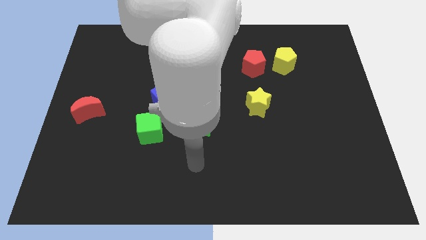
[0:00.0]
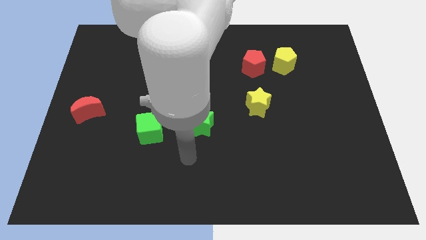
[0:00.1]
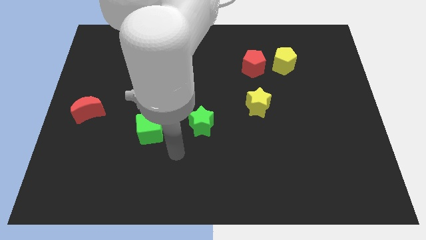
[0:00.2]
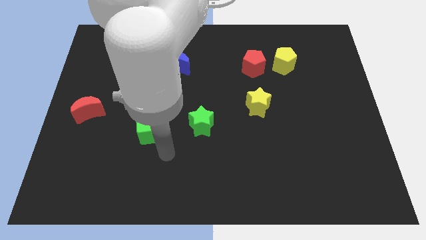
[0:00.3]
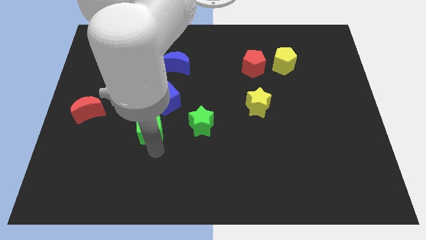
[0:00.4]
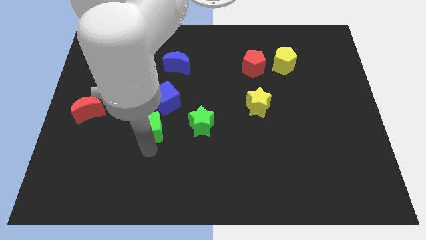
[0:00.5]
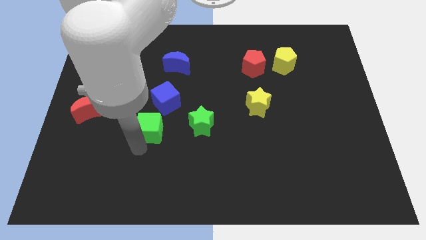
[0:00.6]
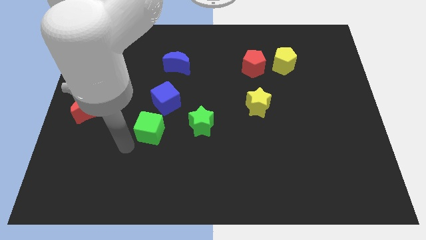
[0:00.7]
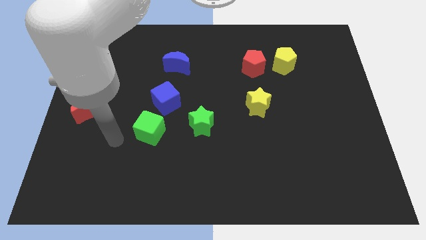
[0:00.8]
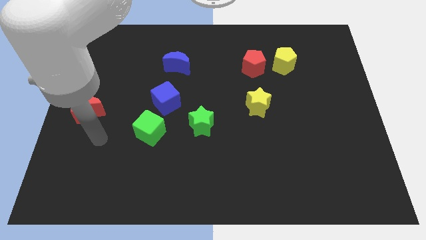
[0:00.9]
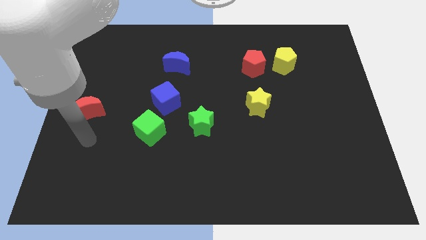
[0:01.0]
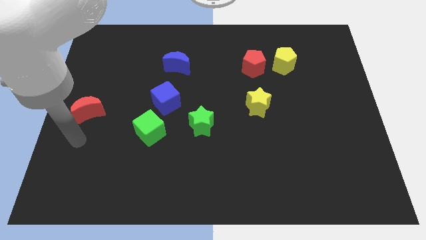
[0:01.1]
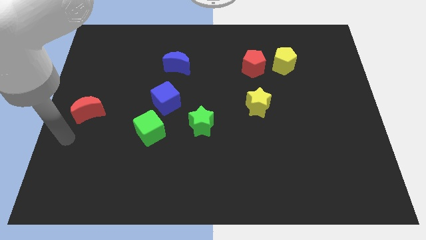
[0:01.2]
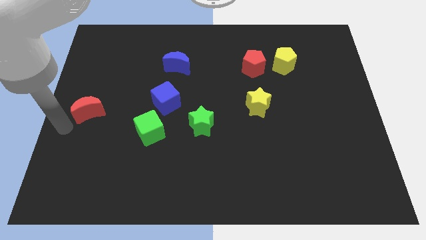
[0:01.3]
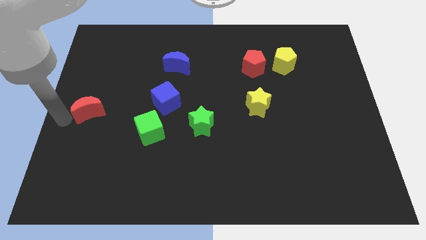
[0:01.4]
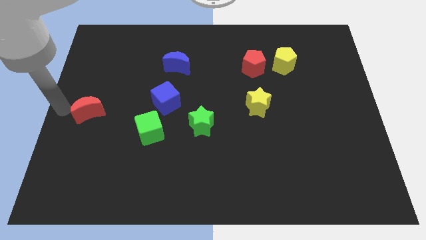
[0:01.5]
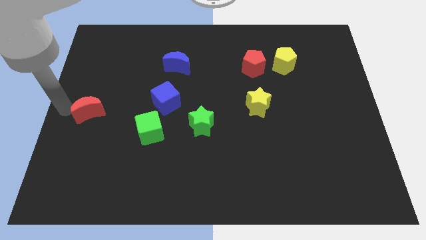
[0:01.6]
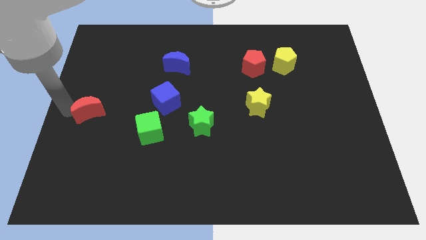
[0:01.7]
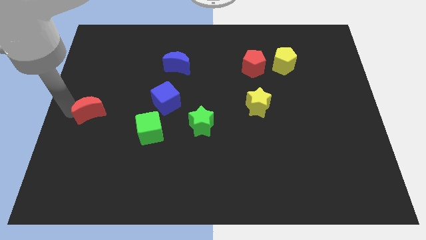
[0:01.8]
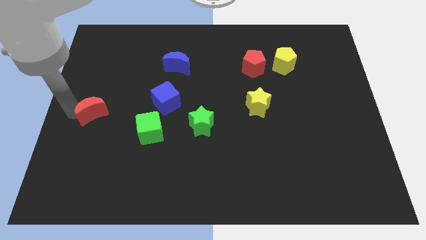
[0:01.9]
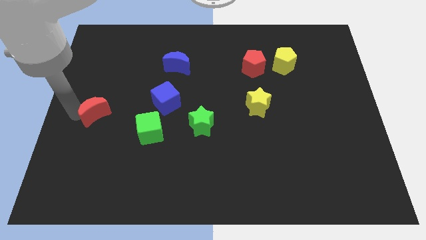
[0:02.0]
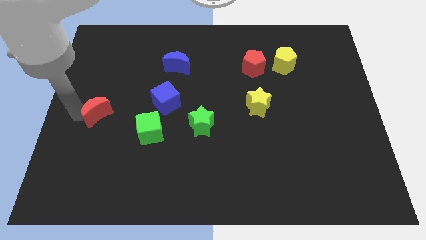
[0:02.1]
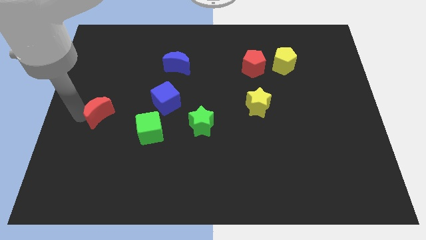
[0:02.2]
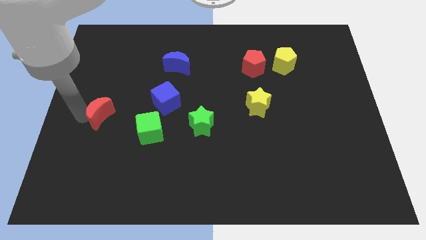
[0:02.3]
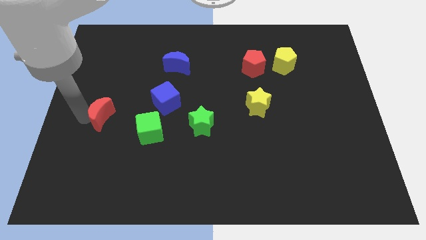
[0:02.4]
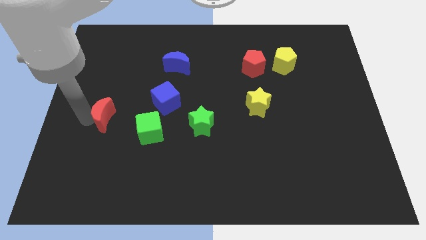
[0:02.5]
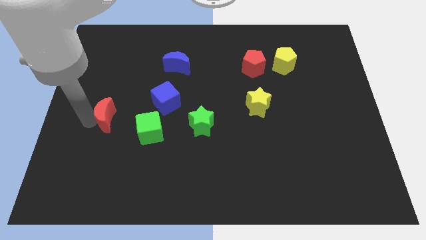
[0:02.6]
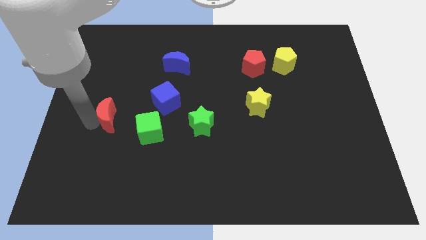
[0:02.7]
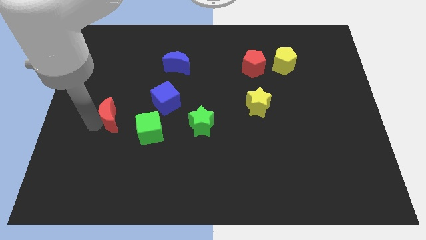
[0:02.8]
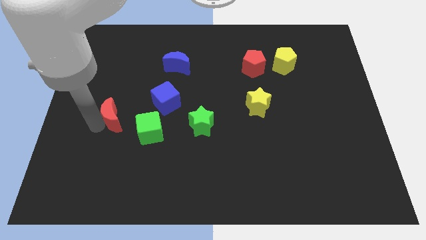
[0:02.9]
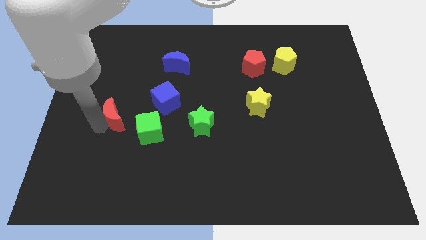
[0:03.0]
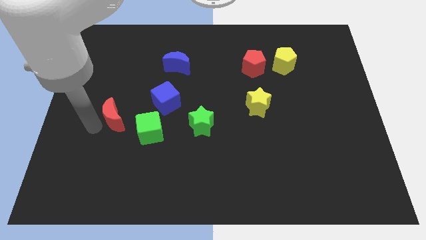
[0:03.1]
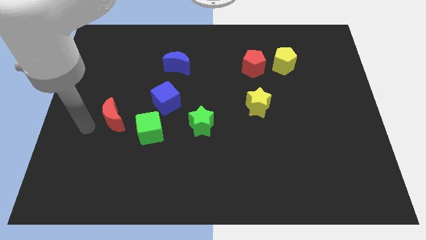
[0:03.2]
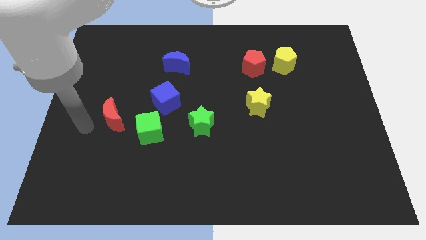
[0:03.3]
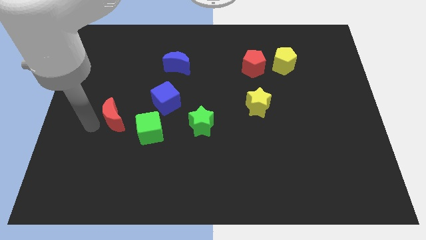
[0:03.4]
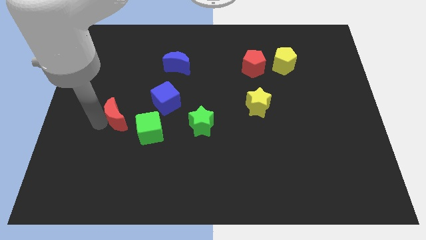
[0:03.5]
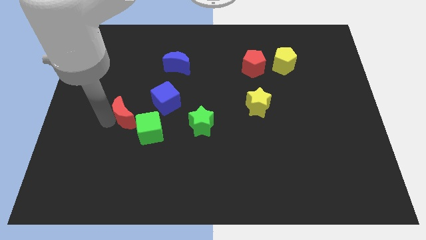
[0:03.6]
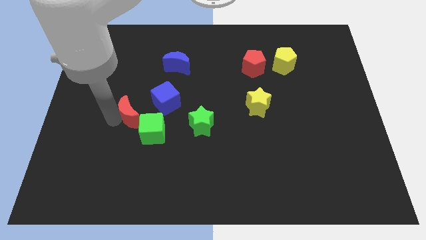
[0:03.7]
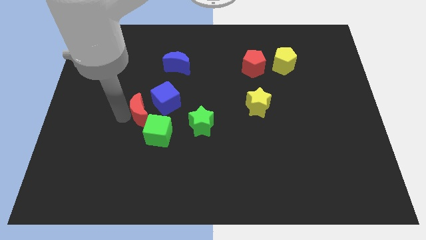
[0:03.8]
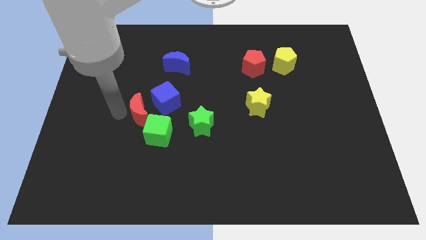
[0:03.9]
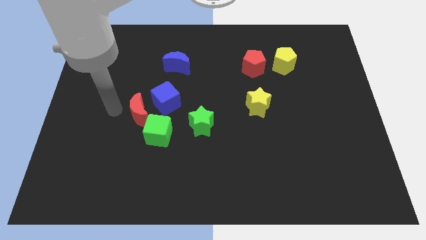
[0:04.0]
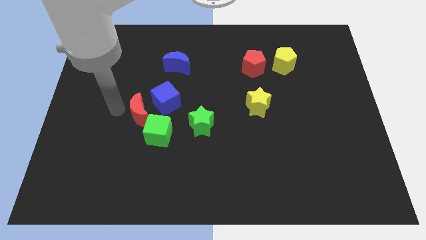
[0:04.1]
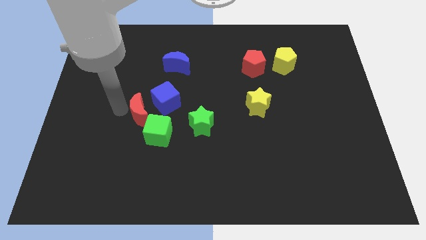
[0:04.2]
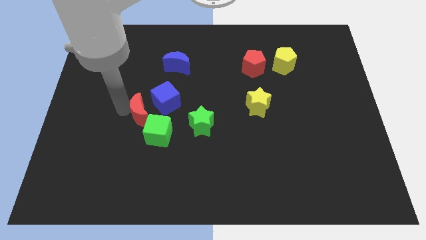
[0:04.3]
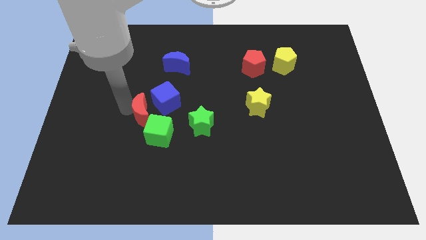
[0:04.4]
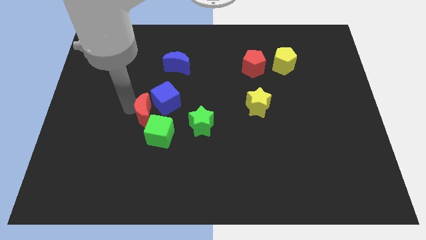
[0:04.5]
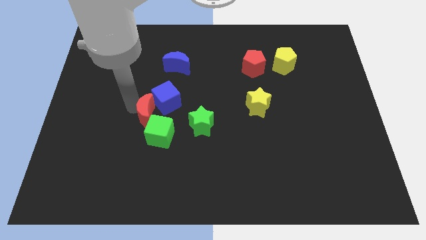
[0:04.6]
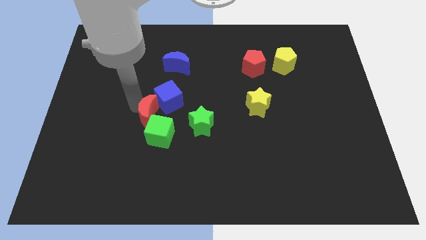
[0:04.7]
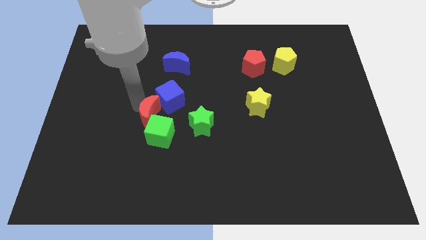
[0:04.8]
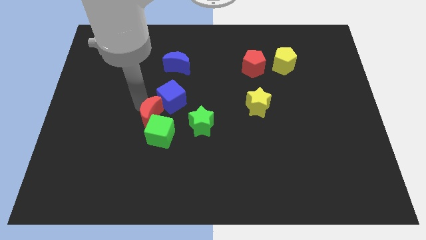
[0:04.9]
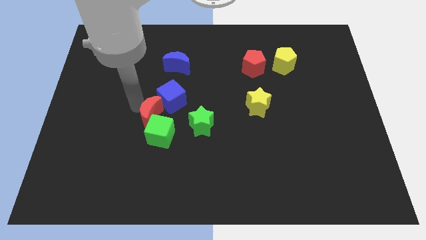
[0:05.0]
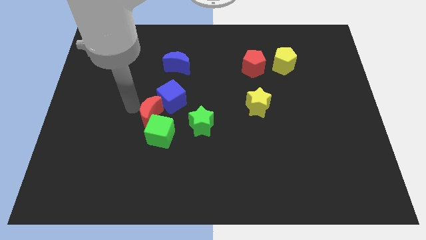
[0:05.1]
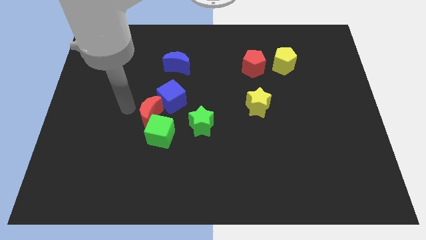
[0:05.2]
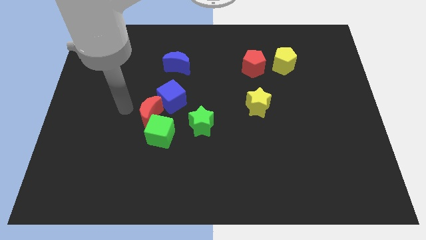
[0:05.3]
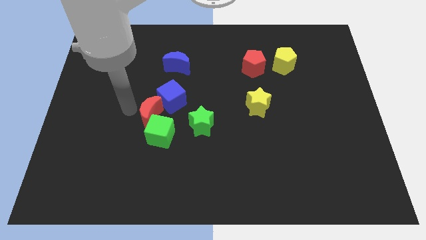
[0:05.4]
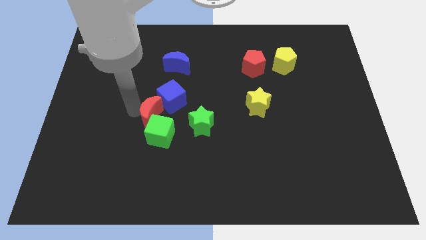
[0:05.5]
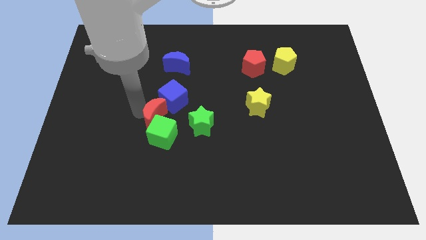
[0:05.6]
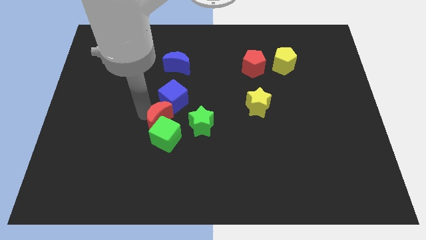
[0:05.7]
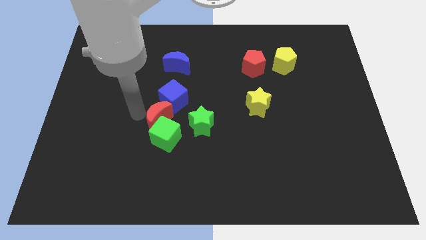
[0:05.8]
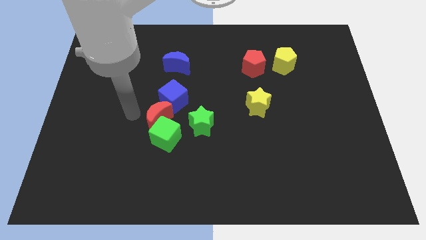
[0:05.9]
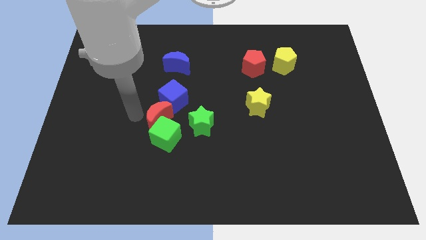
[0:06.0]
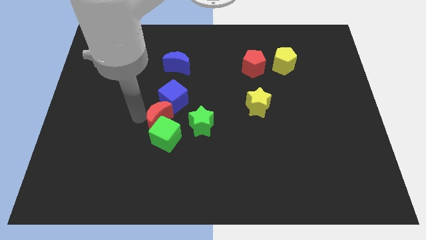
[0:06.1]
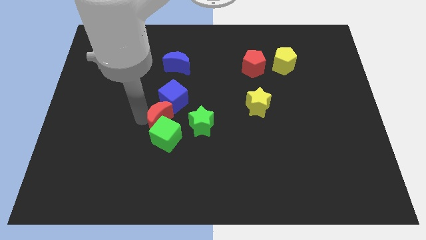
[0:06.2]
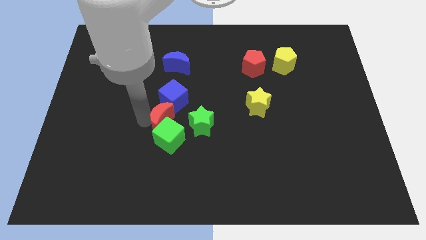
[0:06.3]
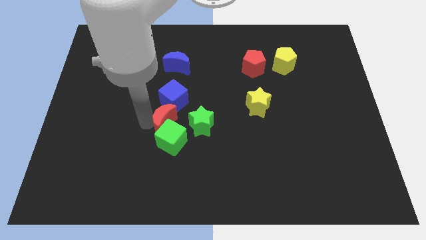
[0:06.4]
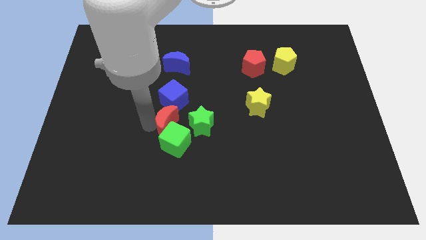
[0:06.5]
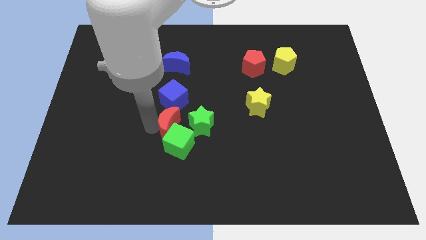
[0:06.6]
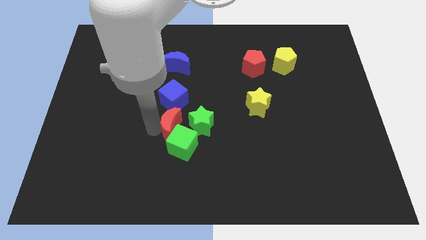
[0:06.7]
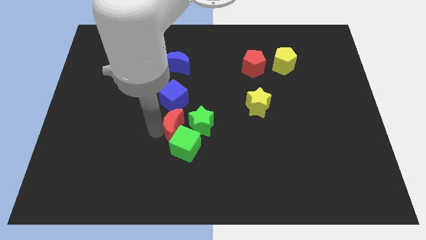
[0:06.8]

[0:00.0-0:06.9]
slide the red moon close to the green star
